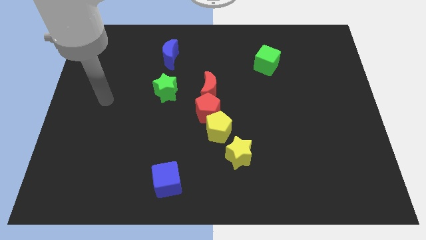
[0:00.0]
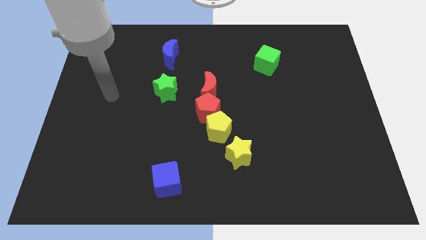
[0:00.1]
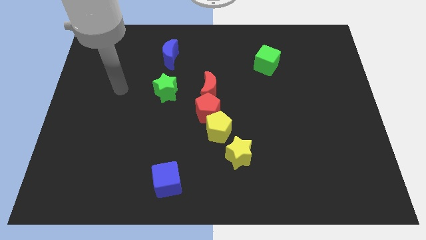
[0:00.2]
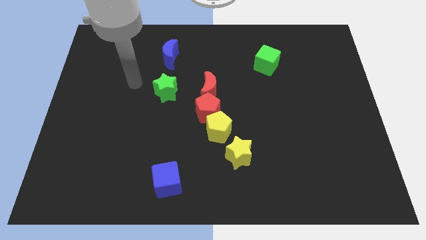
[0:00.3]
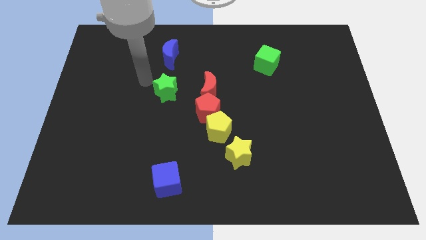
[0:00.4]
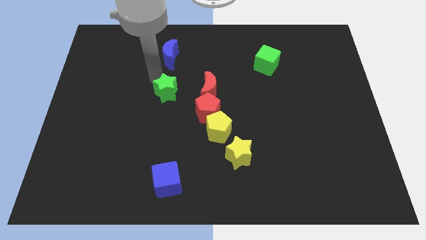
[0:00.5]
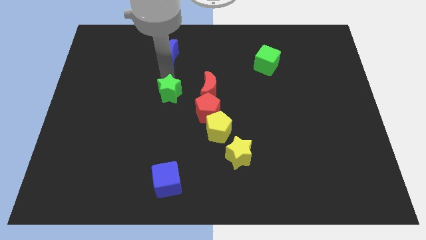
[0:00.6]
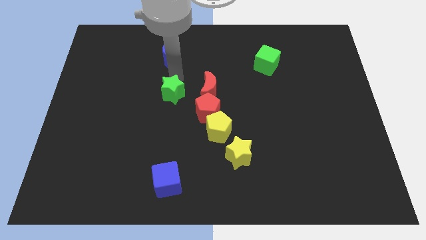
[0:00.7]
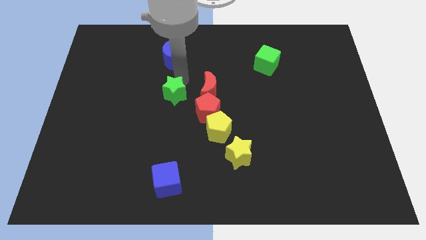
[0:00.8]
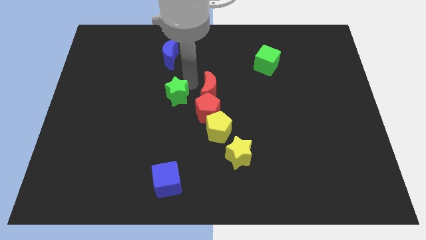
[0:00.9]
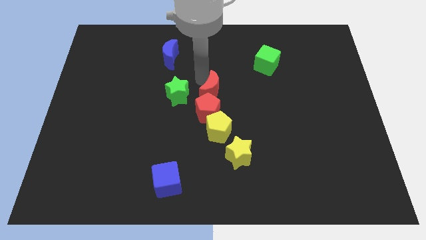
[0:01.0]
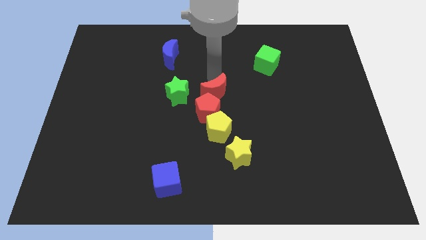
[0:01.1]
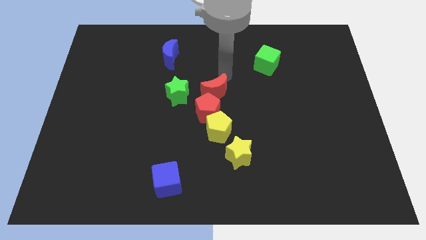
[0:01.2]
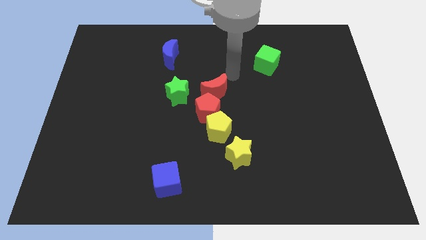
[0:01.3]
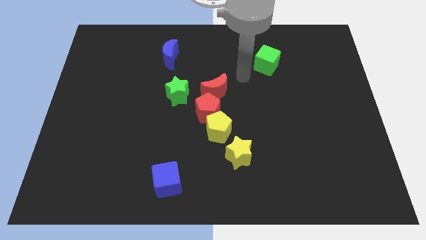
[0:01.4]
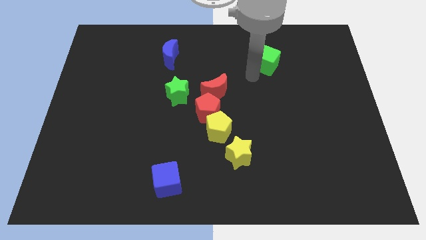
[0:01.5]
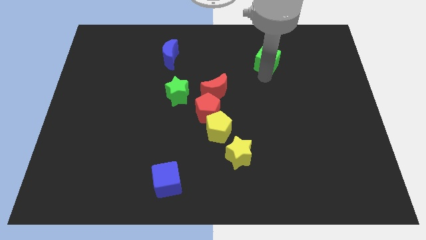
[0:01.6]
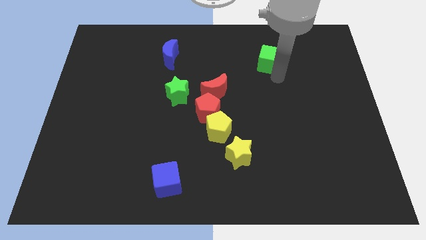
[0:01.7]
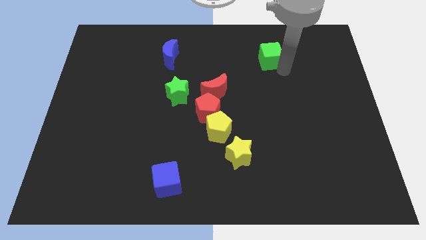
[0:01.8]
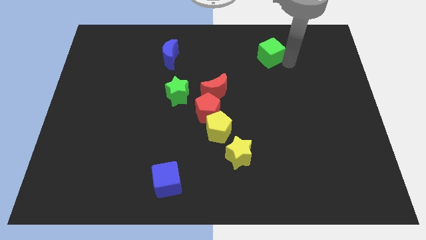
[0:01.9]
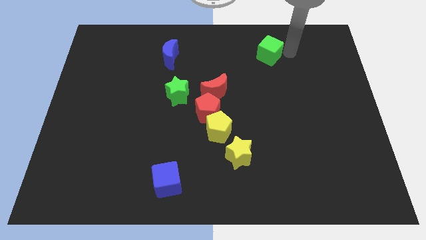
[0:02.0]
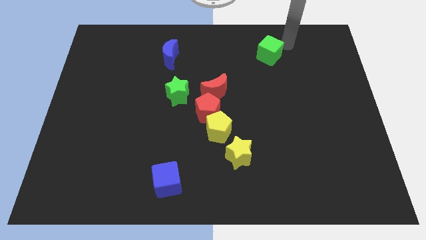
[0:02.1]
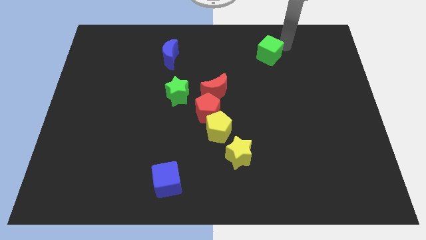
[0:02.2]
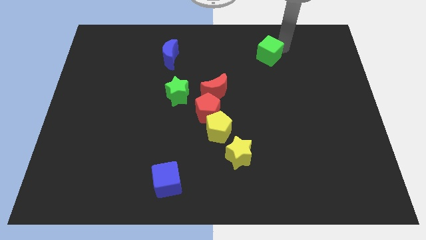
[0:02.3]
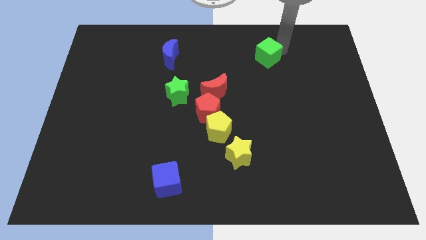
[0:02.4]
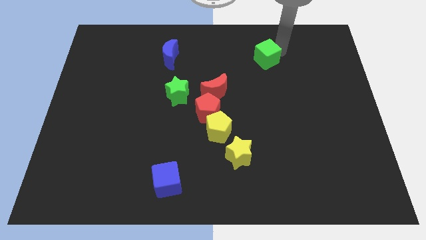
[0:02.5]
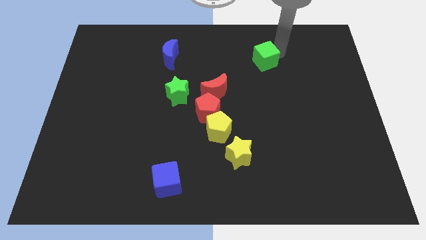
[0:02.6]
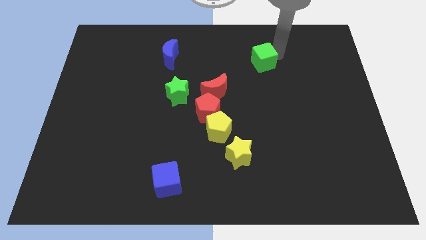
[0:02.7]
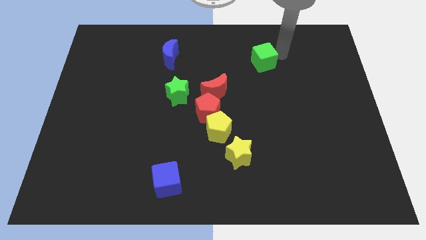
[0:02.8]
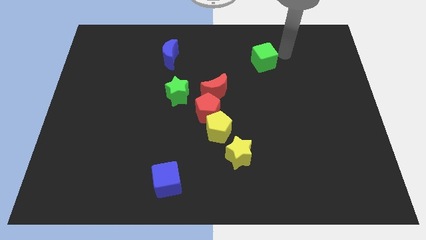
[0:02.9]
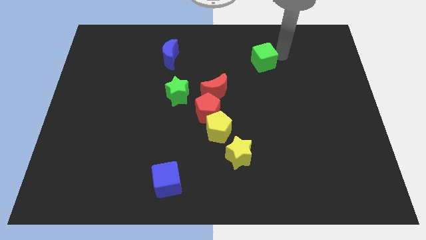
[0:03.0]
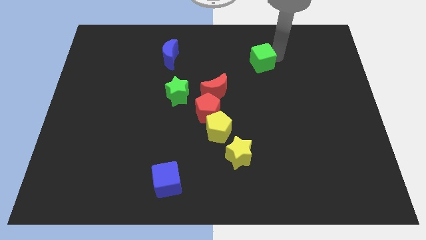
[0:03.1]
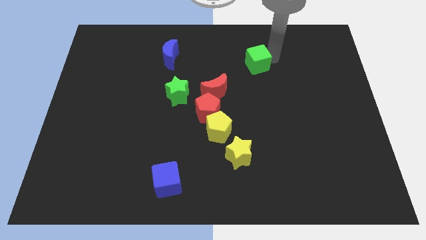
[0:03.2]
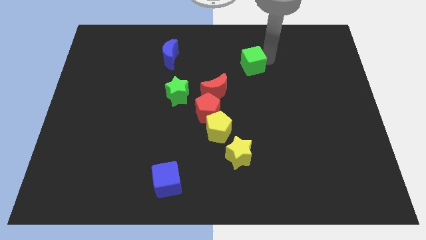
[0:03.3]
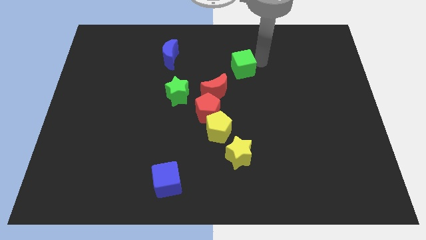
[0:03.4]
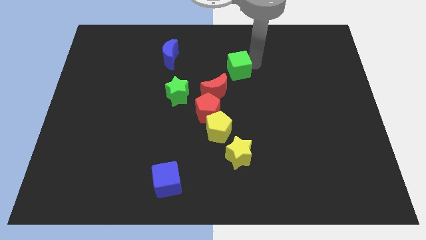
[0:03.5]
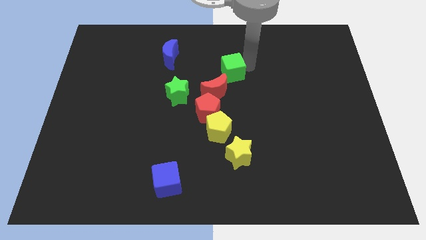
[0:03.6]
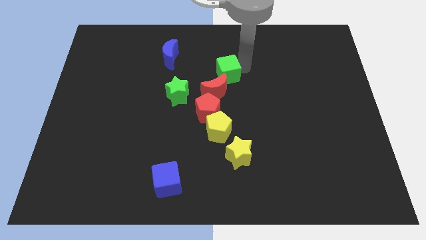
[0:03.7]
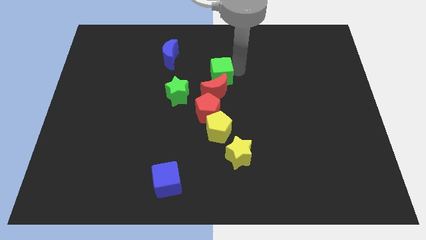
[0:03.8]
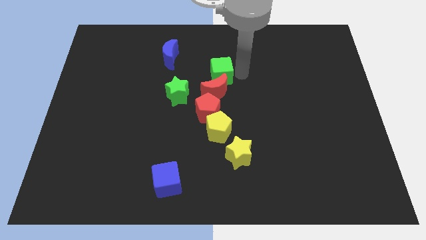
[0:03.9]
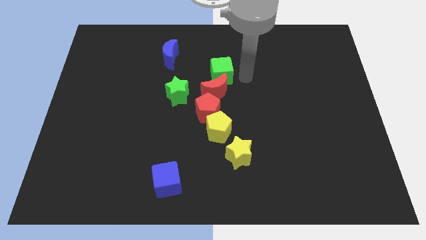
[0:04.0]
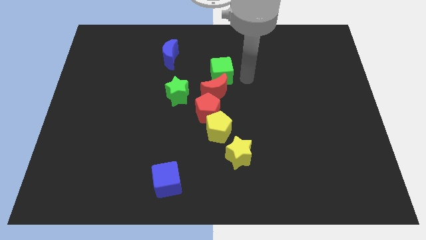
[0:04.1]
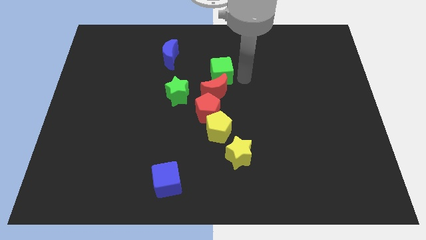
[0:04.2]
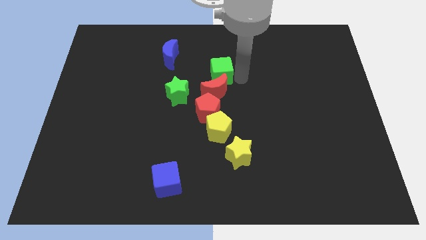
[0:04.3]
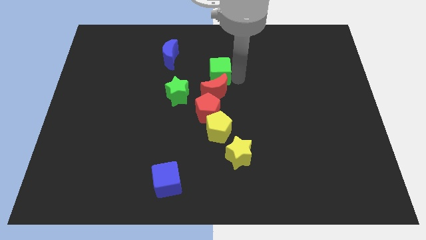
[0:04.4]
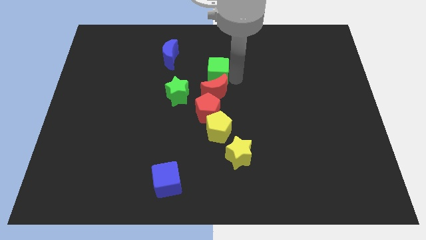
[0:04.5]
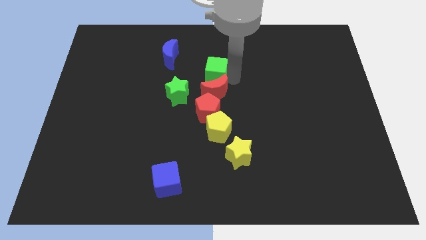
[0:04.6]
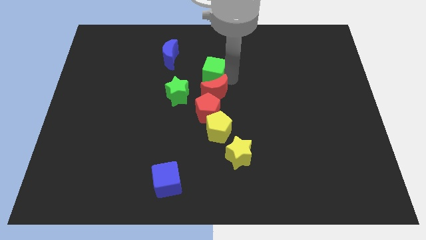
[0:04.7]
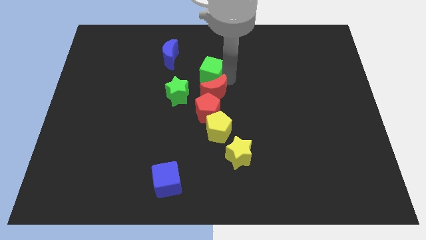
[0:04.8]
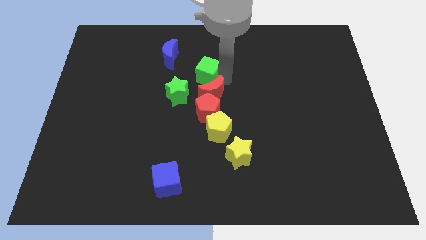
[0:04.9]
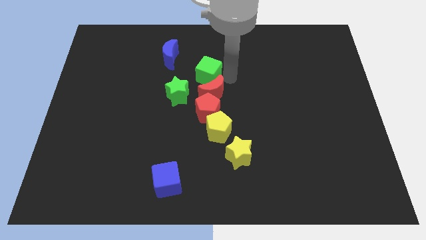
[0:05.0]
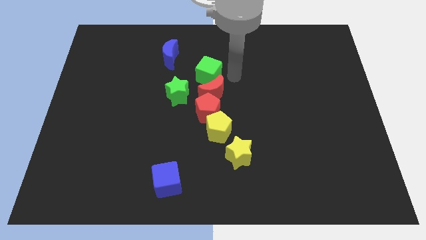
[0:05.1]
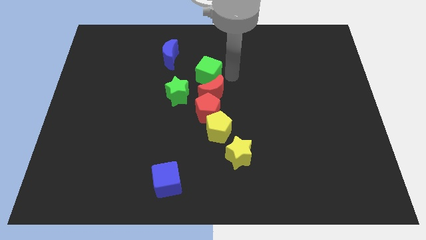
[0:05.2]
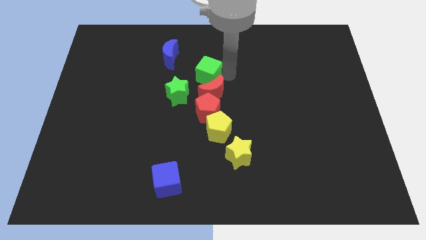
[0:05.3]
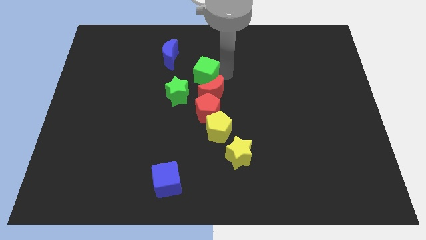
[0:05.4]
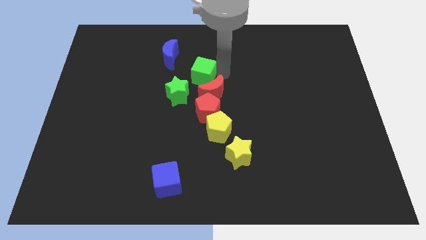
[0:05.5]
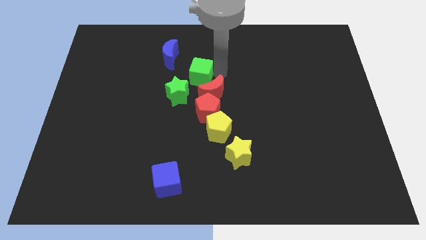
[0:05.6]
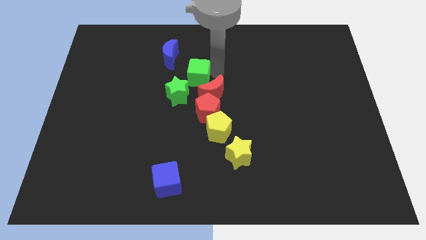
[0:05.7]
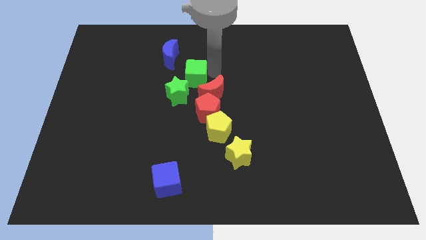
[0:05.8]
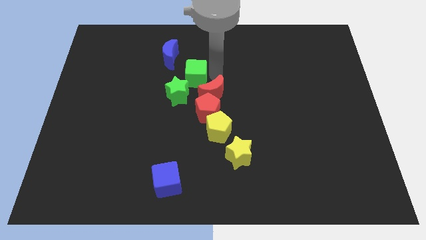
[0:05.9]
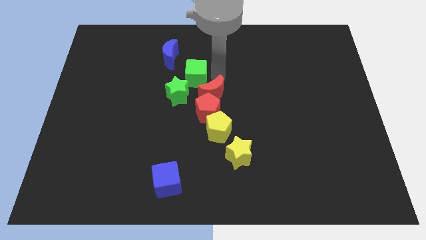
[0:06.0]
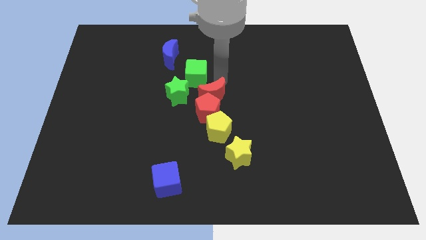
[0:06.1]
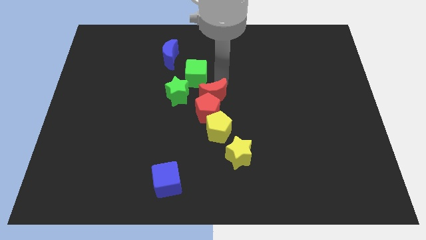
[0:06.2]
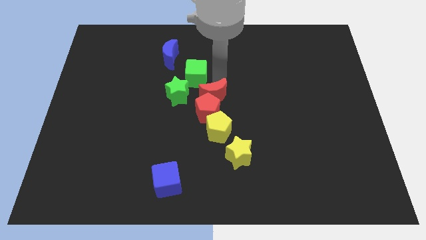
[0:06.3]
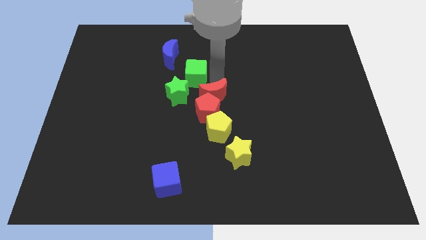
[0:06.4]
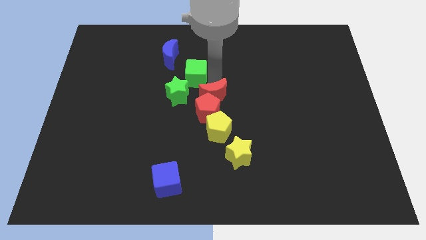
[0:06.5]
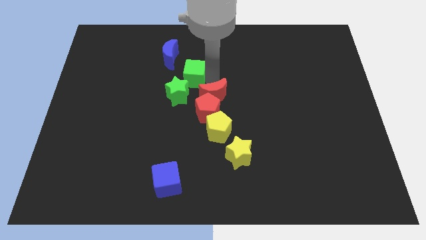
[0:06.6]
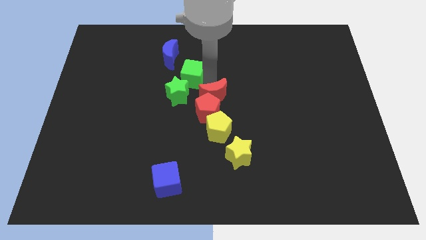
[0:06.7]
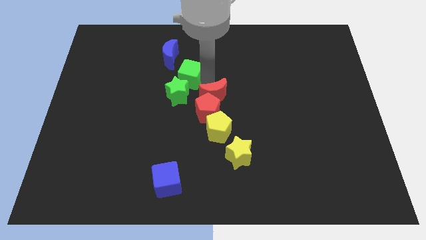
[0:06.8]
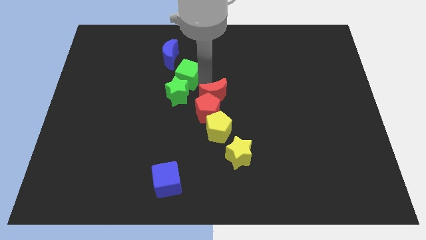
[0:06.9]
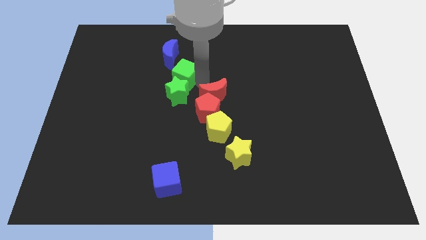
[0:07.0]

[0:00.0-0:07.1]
slide the green cube left

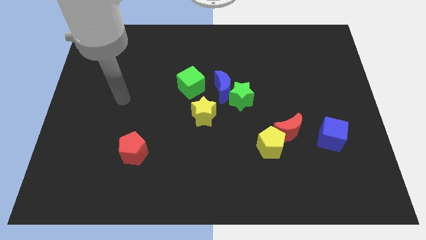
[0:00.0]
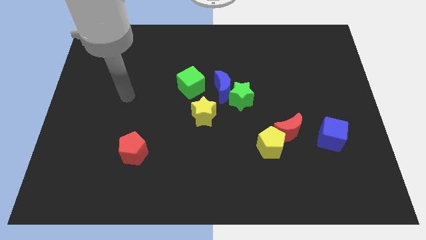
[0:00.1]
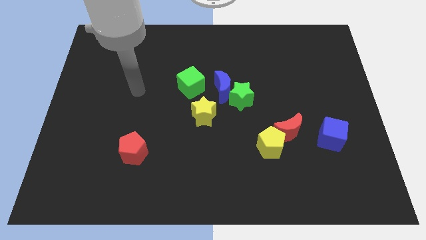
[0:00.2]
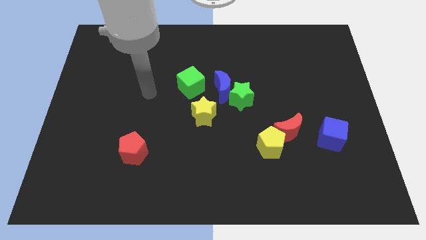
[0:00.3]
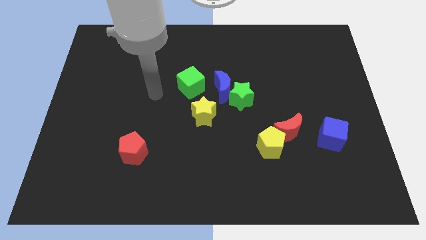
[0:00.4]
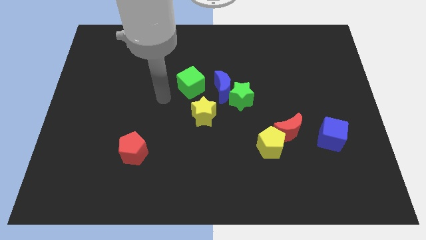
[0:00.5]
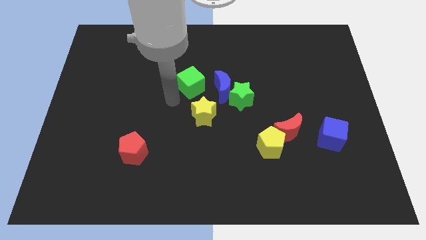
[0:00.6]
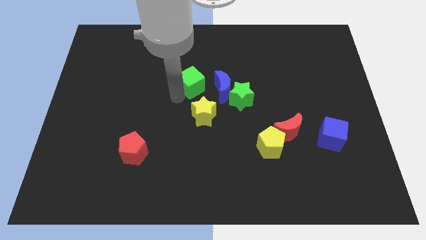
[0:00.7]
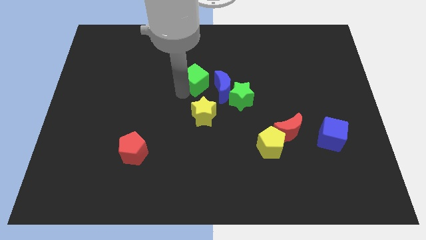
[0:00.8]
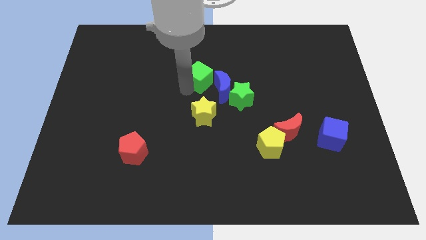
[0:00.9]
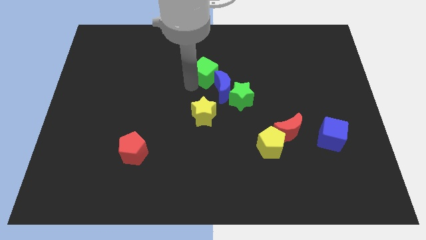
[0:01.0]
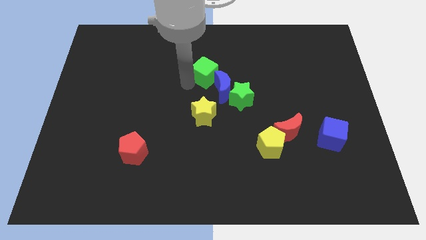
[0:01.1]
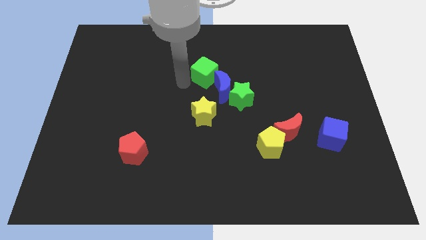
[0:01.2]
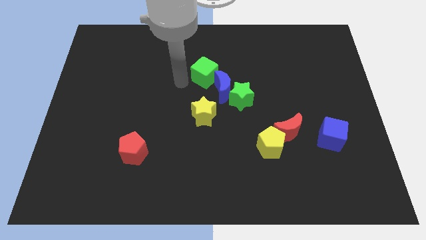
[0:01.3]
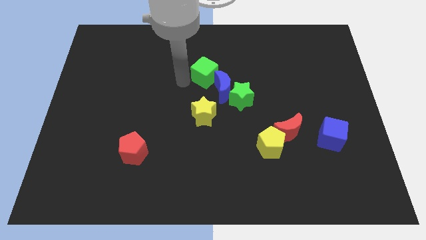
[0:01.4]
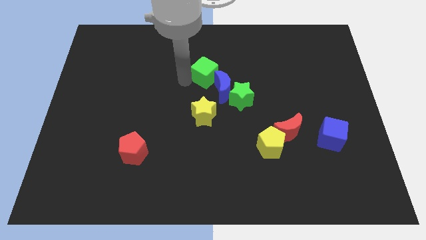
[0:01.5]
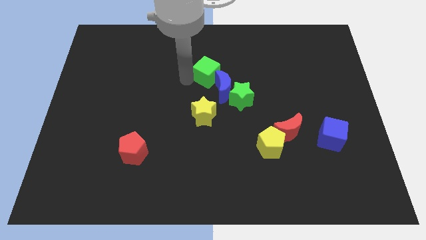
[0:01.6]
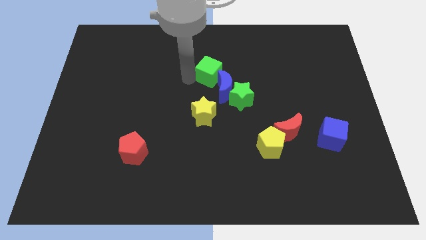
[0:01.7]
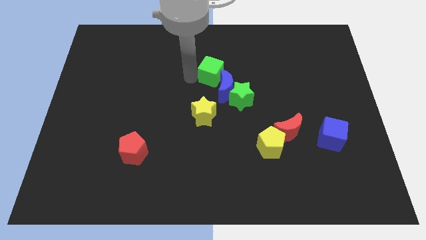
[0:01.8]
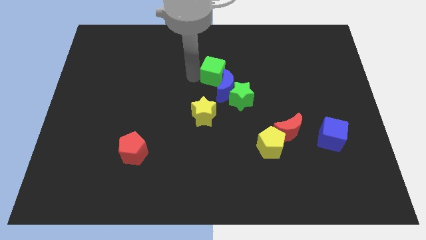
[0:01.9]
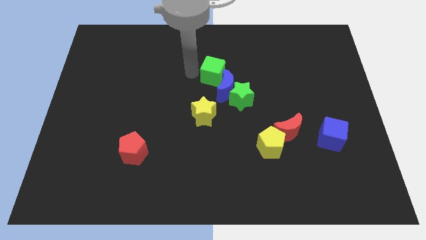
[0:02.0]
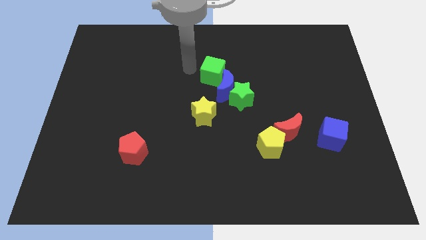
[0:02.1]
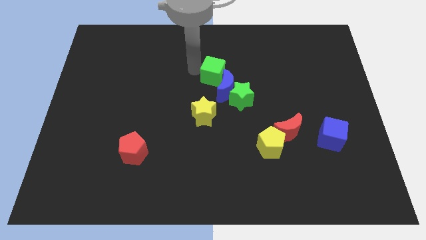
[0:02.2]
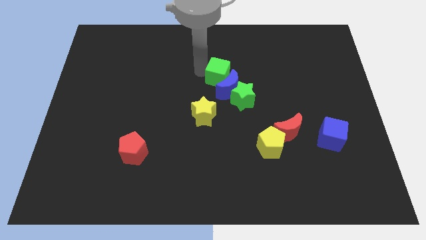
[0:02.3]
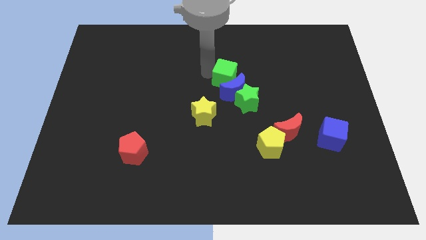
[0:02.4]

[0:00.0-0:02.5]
slightly move the green cube to the right
